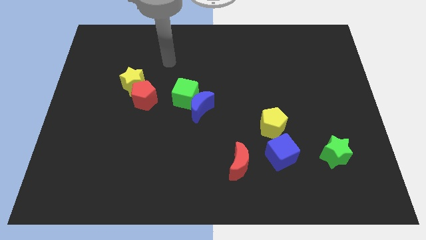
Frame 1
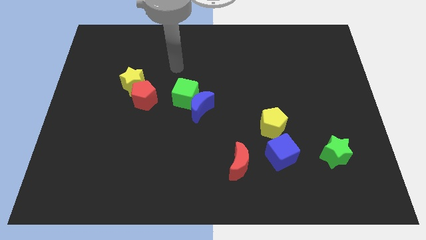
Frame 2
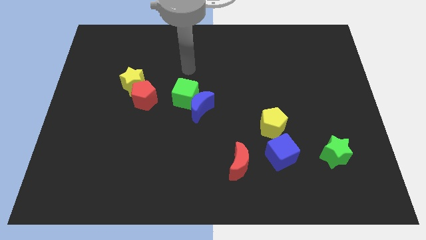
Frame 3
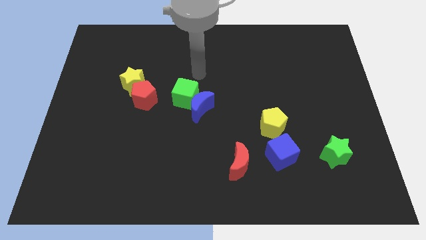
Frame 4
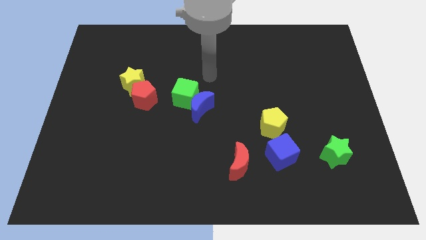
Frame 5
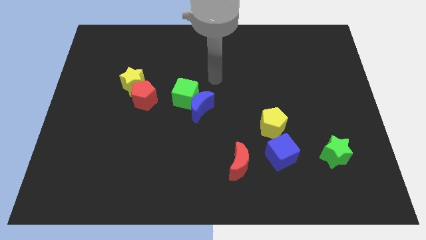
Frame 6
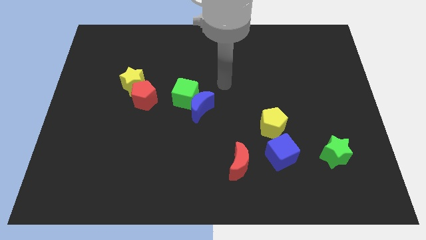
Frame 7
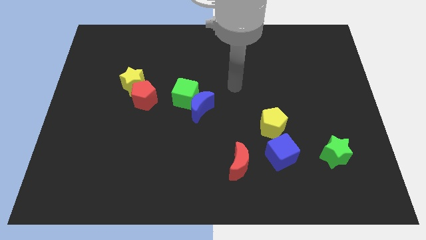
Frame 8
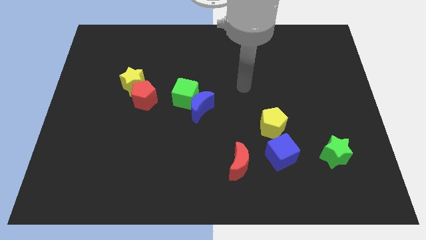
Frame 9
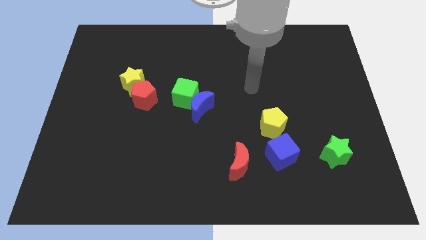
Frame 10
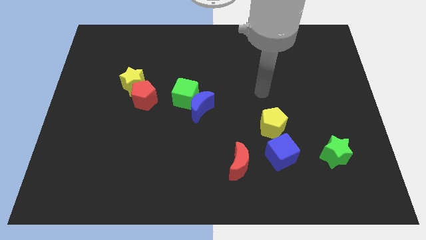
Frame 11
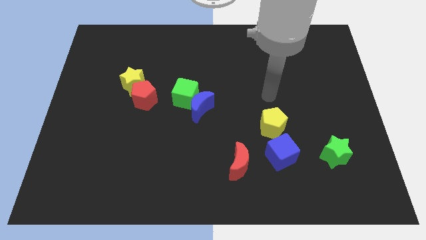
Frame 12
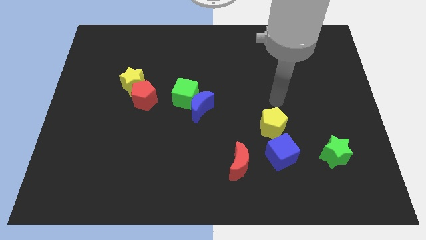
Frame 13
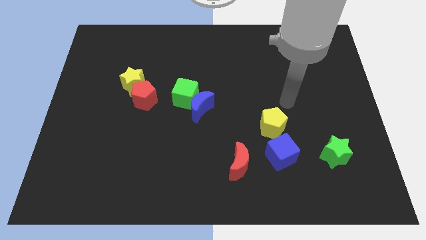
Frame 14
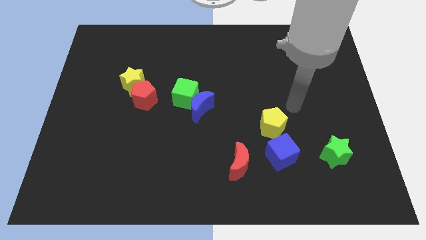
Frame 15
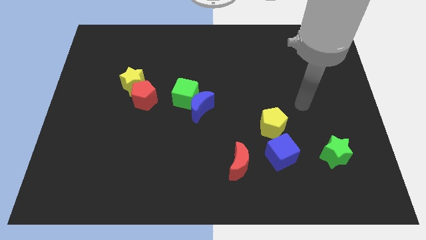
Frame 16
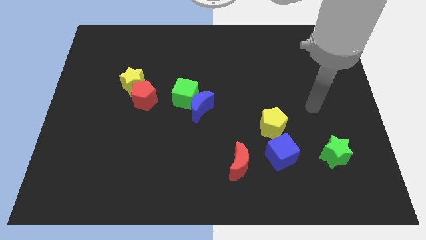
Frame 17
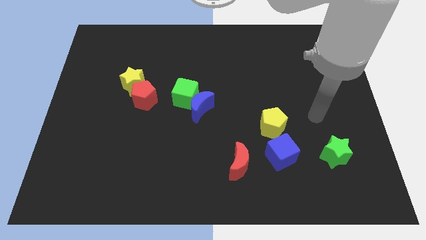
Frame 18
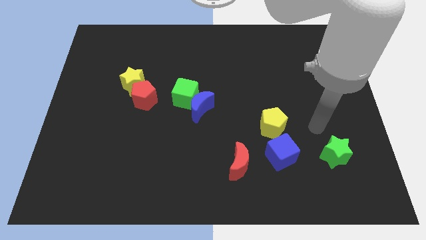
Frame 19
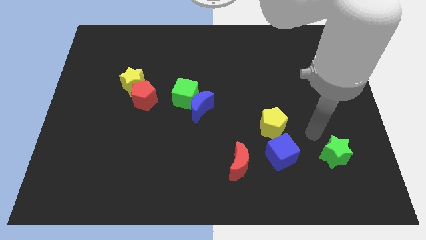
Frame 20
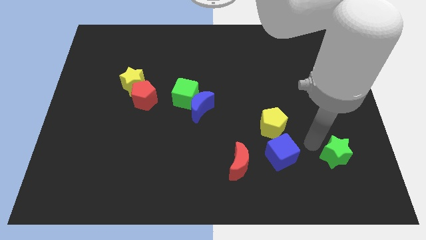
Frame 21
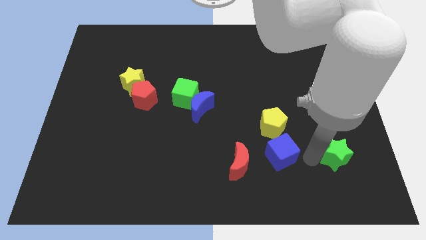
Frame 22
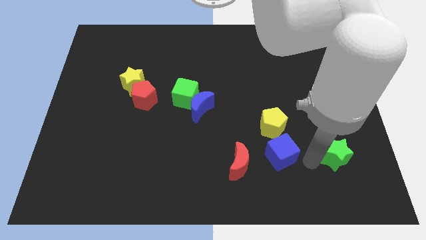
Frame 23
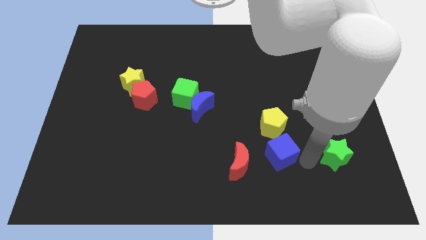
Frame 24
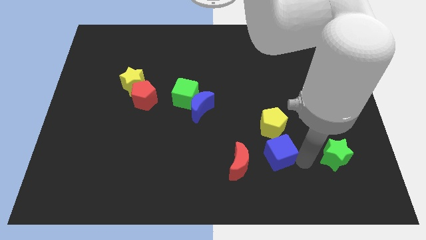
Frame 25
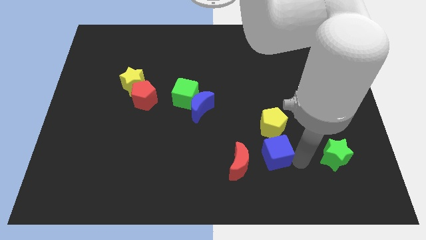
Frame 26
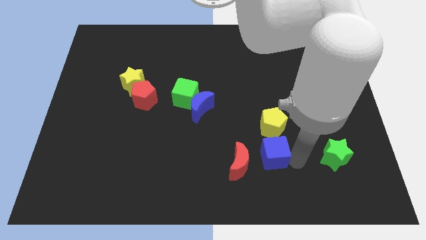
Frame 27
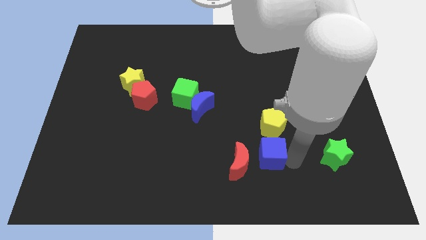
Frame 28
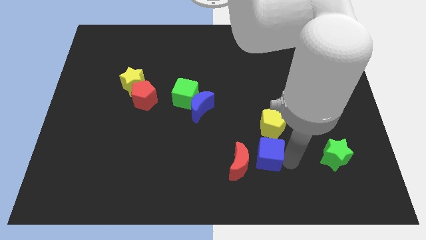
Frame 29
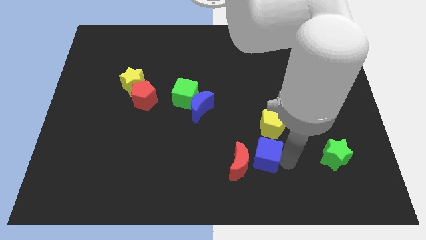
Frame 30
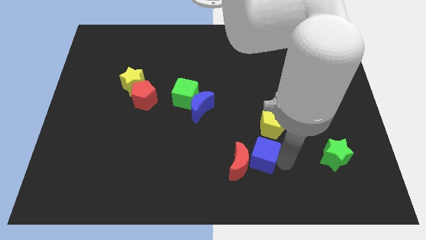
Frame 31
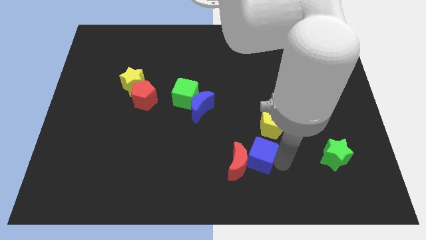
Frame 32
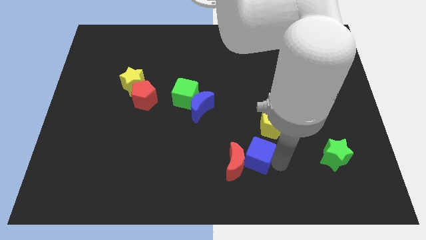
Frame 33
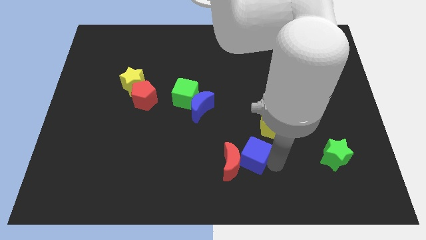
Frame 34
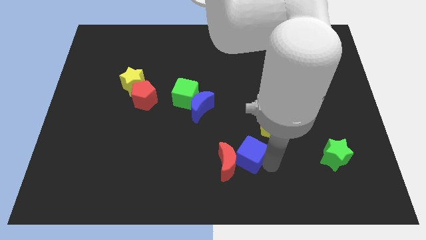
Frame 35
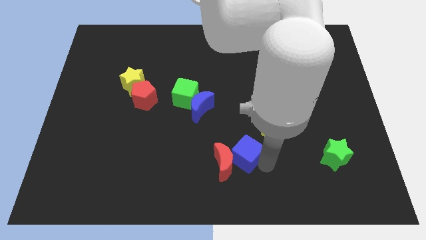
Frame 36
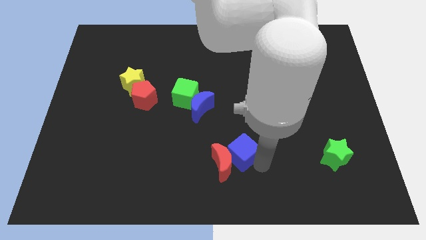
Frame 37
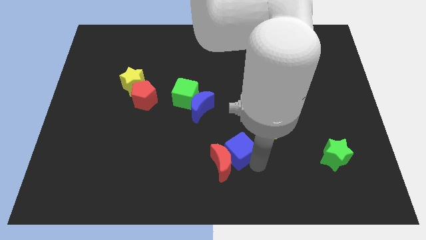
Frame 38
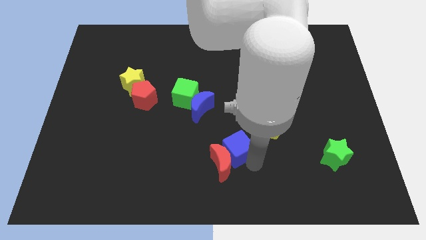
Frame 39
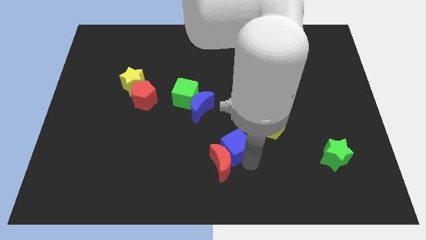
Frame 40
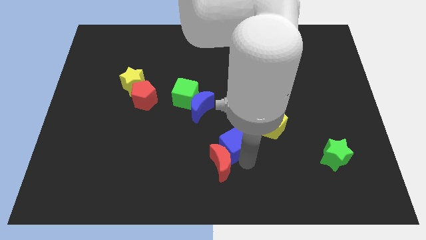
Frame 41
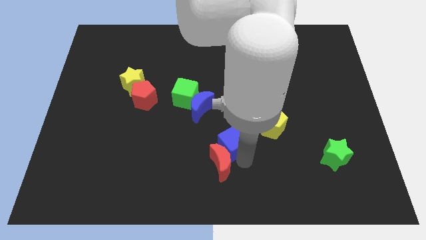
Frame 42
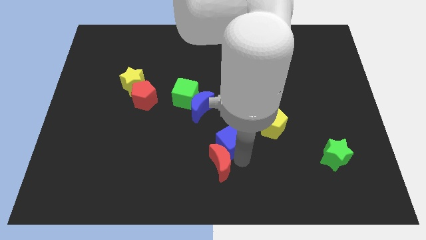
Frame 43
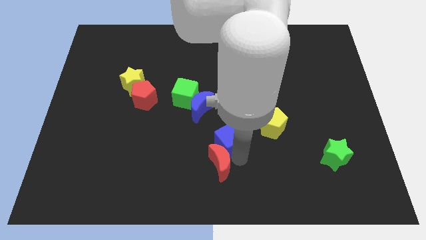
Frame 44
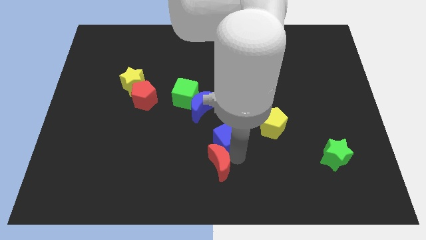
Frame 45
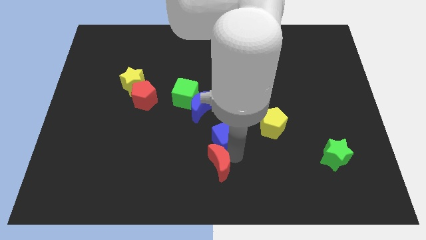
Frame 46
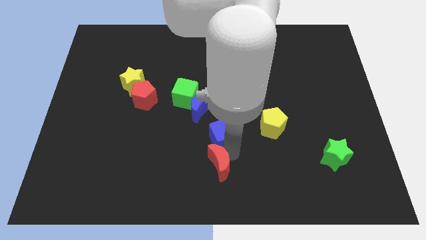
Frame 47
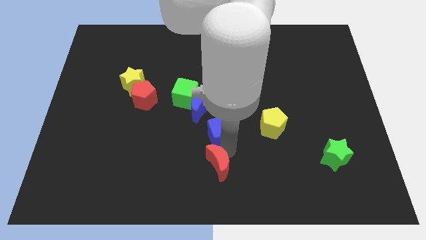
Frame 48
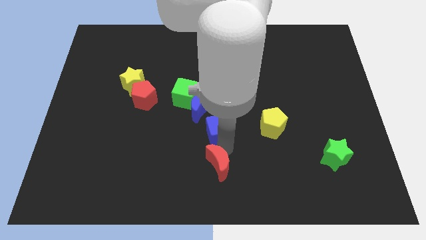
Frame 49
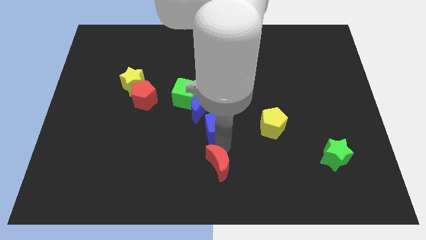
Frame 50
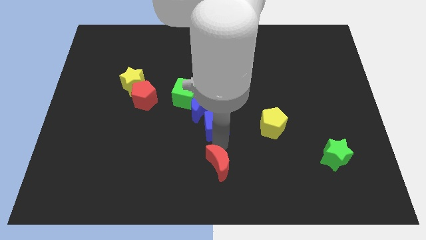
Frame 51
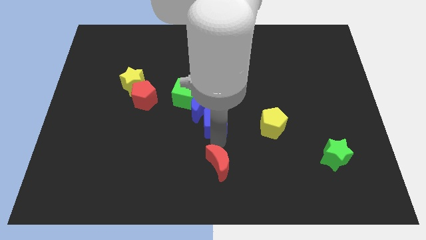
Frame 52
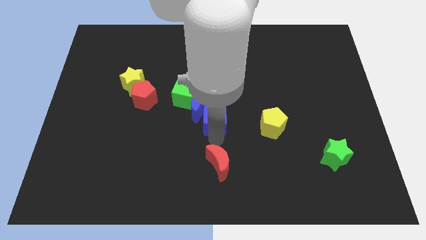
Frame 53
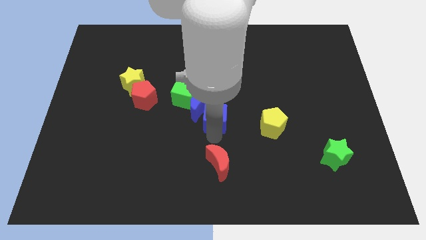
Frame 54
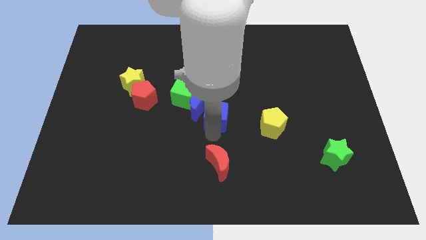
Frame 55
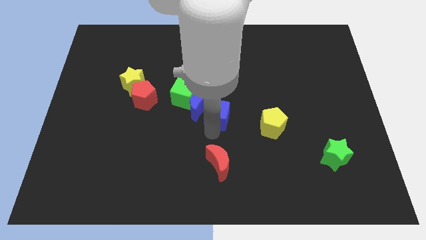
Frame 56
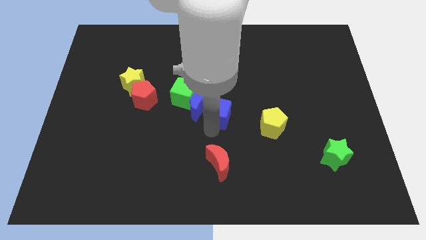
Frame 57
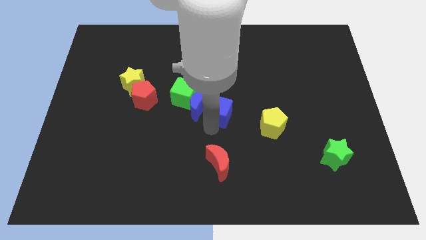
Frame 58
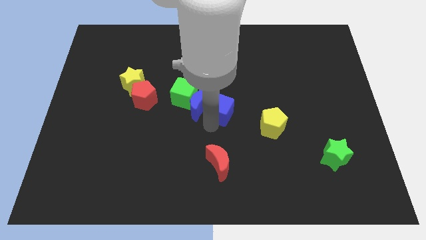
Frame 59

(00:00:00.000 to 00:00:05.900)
move the blue cube right of the green cube

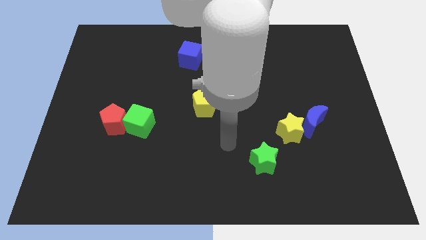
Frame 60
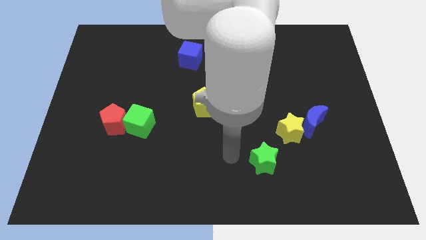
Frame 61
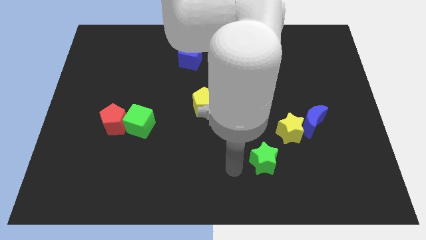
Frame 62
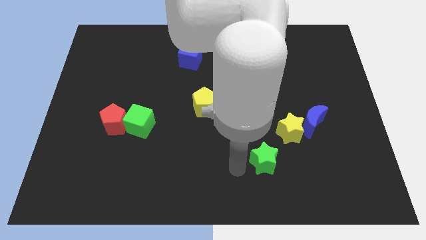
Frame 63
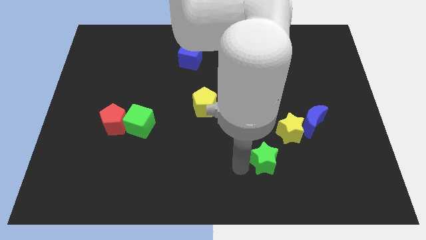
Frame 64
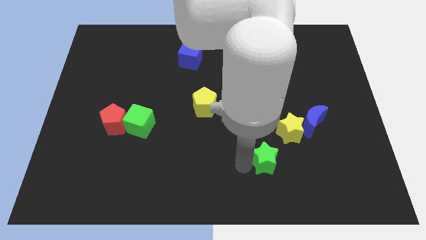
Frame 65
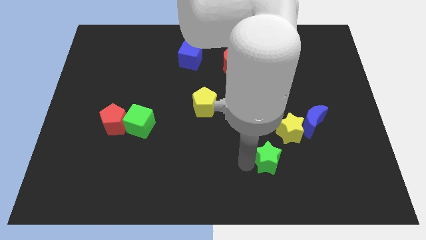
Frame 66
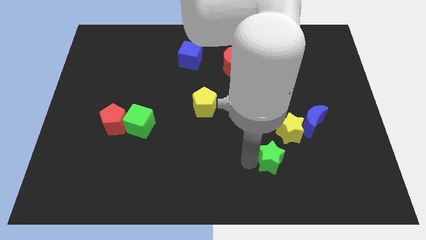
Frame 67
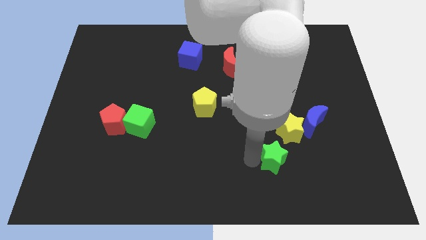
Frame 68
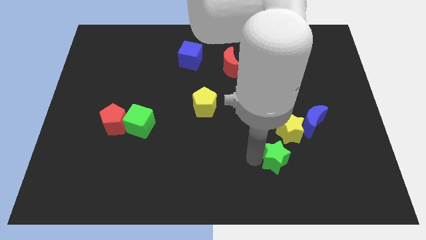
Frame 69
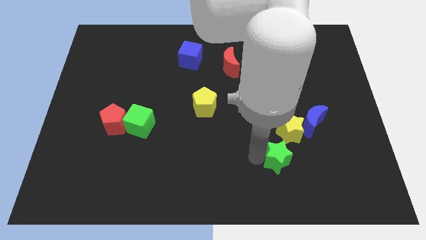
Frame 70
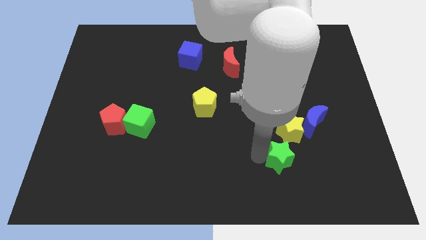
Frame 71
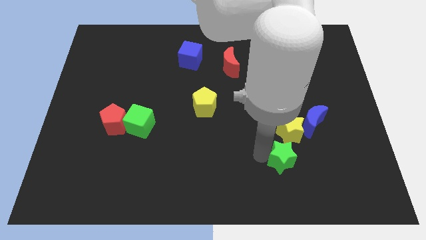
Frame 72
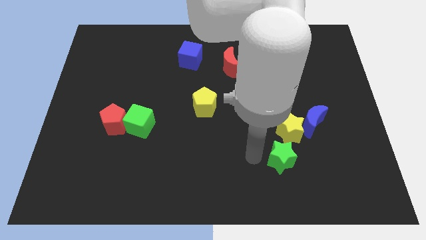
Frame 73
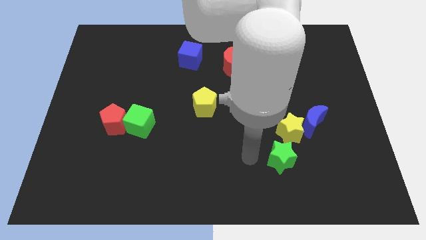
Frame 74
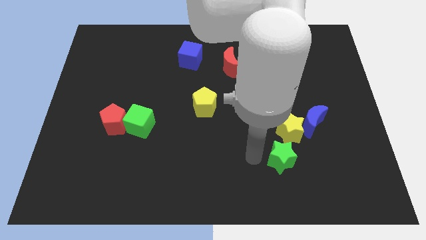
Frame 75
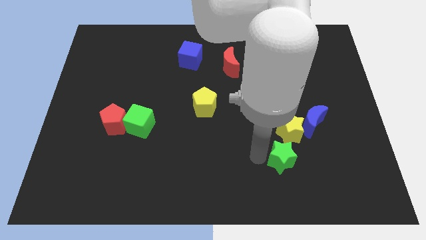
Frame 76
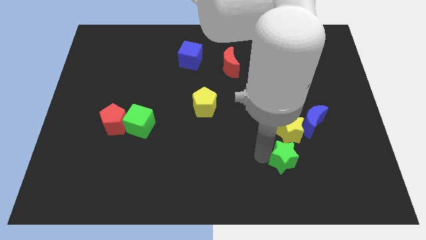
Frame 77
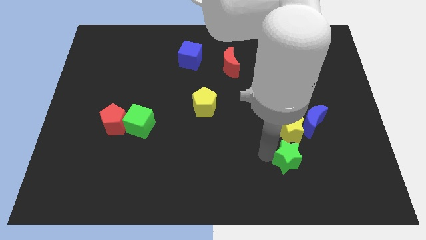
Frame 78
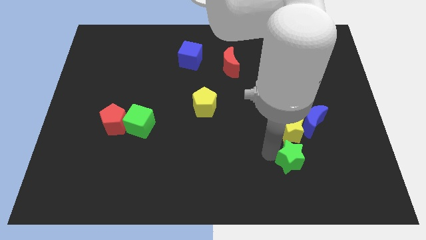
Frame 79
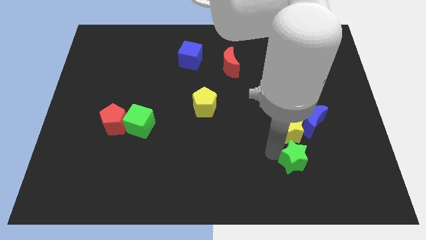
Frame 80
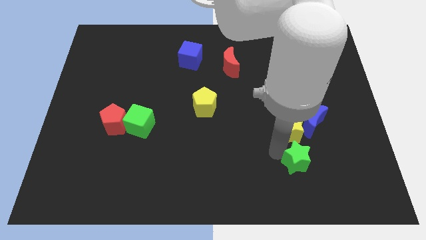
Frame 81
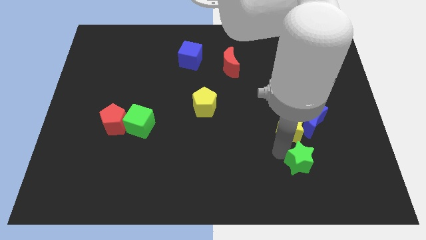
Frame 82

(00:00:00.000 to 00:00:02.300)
move the green star below the blue moon
